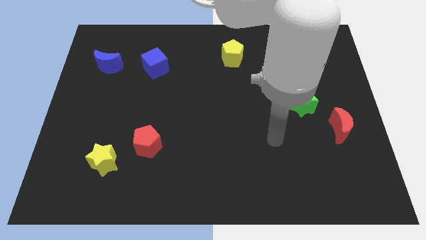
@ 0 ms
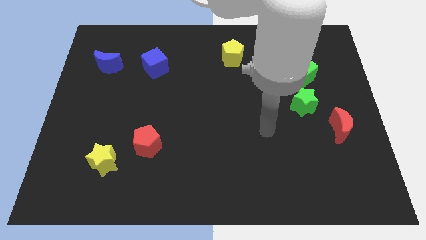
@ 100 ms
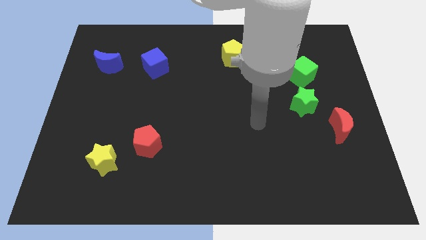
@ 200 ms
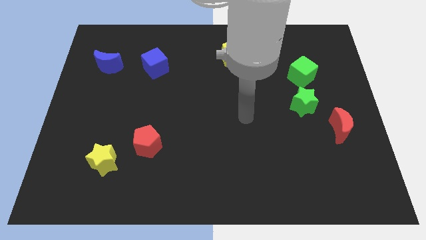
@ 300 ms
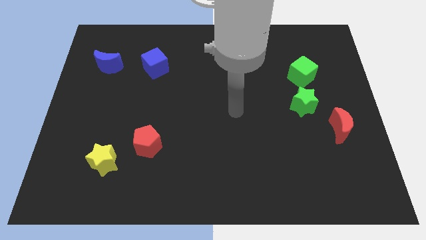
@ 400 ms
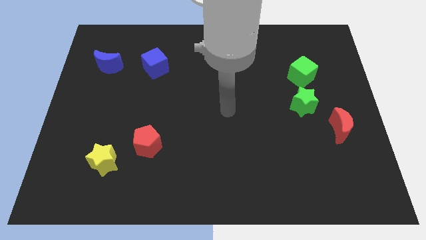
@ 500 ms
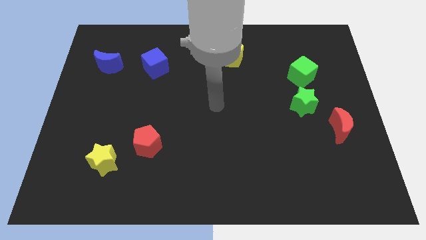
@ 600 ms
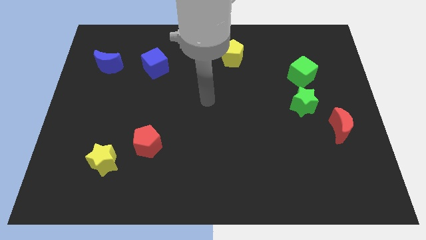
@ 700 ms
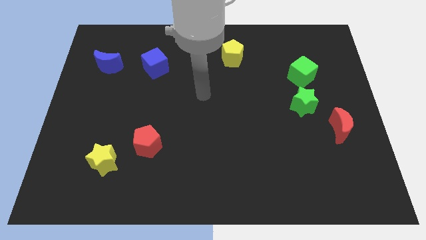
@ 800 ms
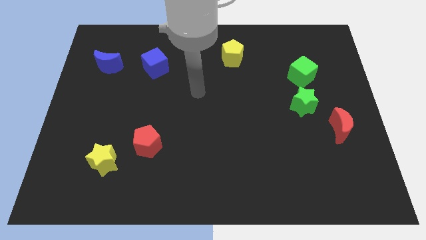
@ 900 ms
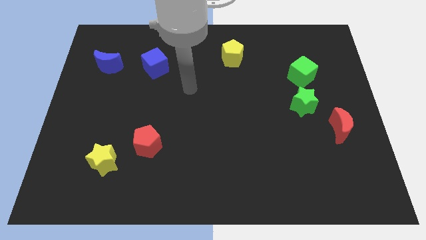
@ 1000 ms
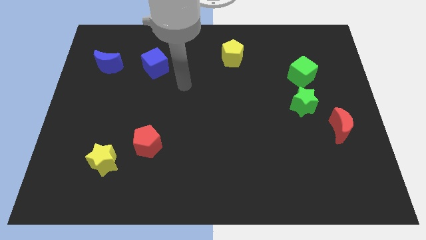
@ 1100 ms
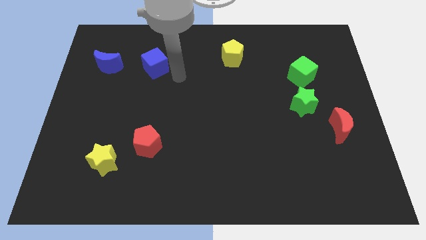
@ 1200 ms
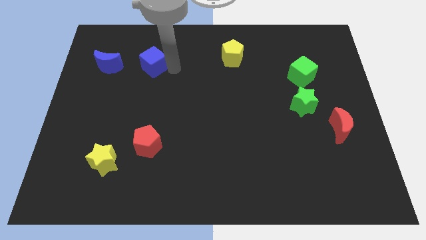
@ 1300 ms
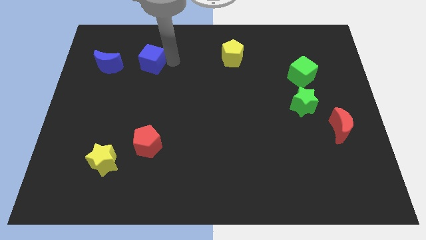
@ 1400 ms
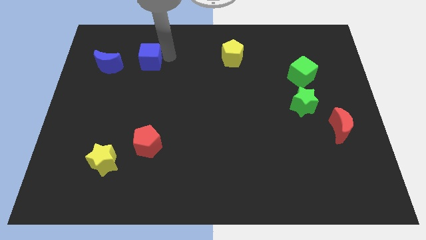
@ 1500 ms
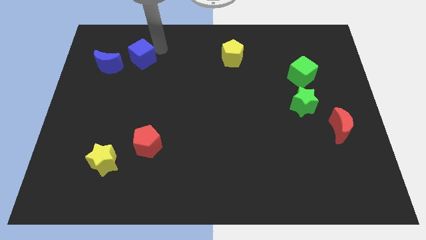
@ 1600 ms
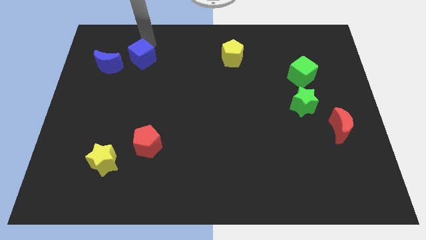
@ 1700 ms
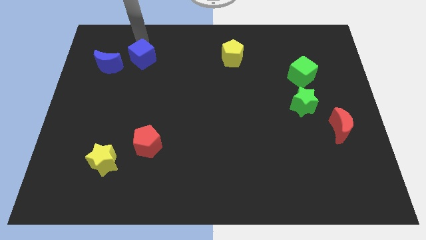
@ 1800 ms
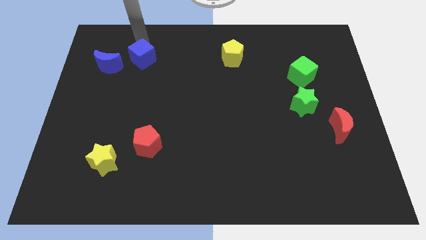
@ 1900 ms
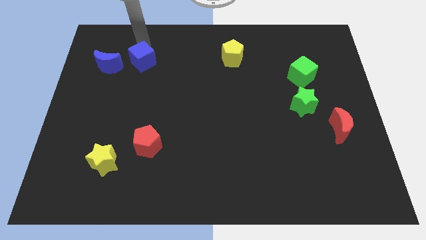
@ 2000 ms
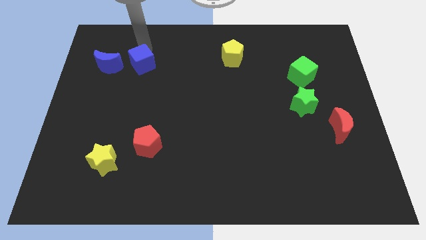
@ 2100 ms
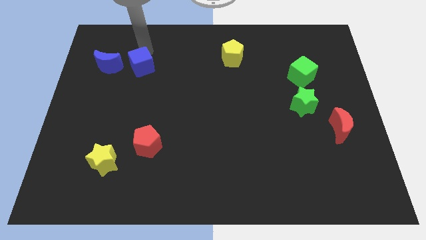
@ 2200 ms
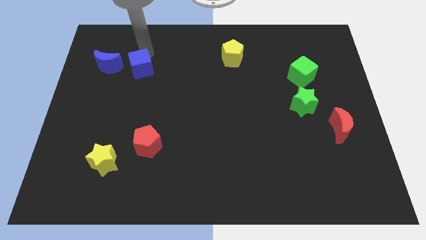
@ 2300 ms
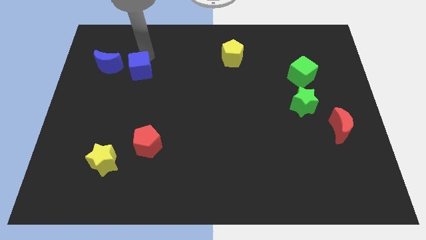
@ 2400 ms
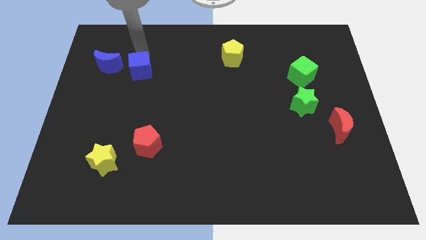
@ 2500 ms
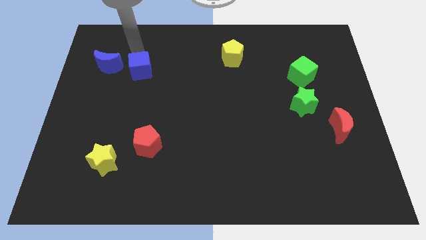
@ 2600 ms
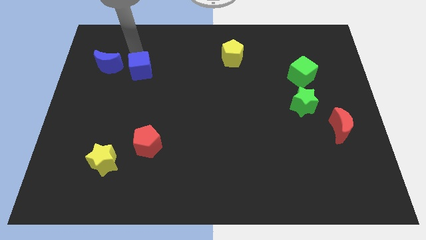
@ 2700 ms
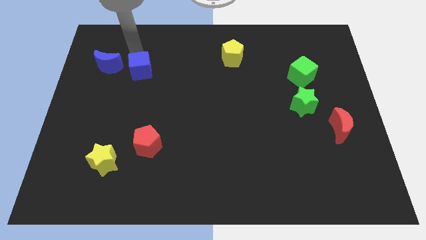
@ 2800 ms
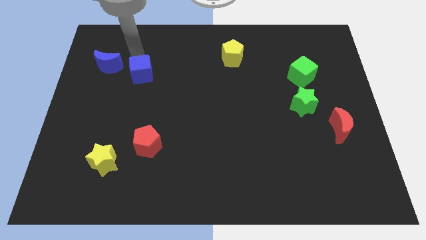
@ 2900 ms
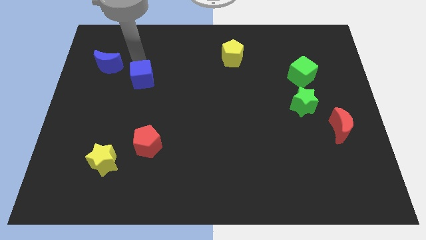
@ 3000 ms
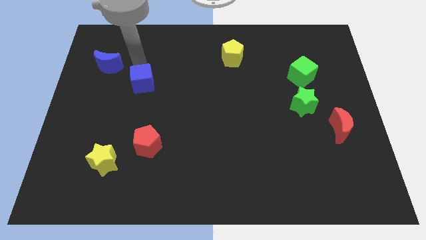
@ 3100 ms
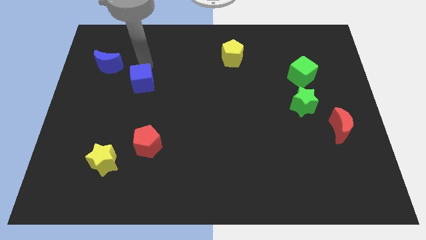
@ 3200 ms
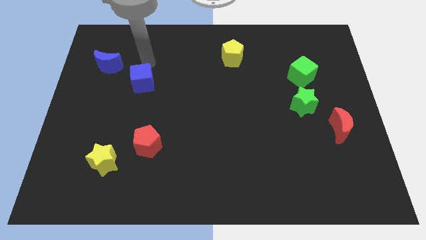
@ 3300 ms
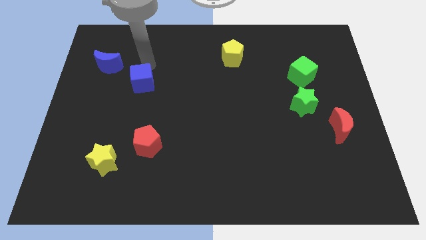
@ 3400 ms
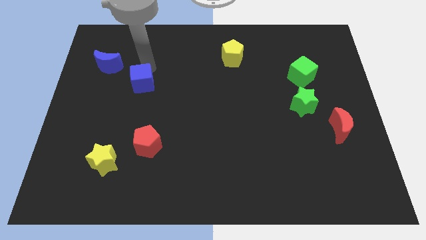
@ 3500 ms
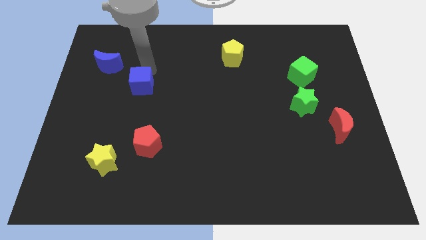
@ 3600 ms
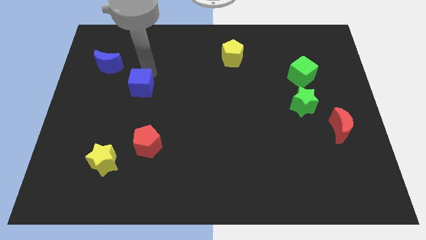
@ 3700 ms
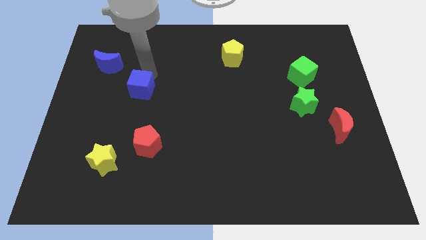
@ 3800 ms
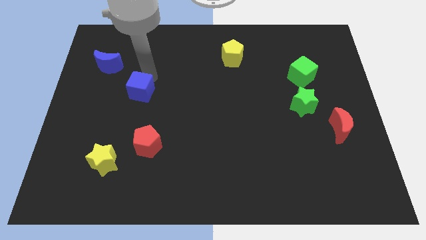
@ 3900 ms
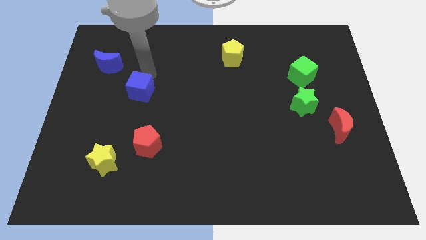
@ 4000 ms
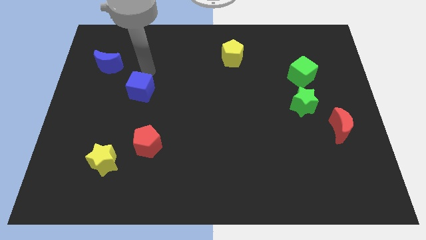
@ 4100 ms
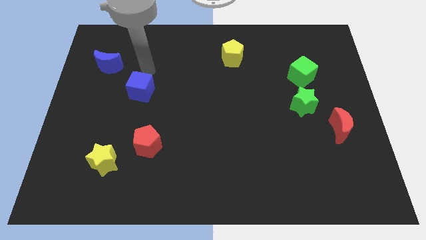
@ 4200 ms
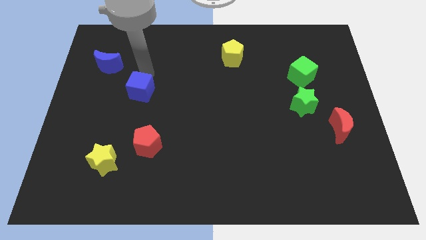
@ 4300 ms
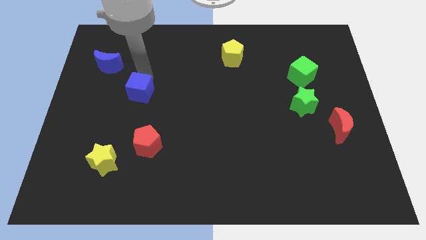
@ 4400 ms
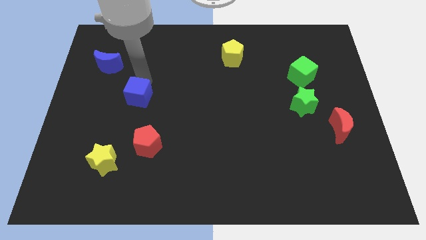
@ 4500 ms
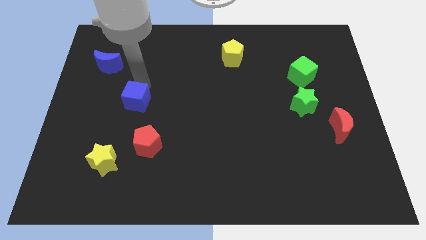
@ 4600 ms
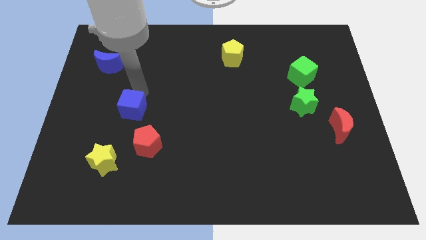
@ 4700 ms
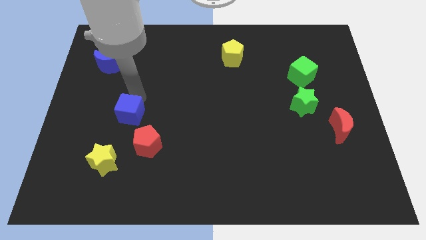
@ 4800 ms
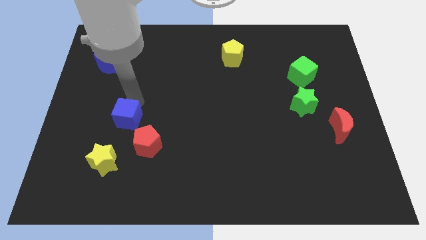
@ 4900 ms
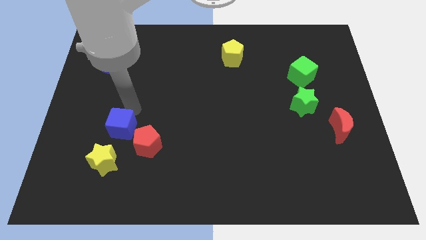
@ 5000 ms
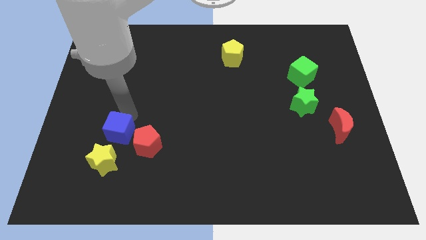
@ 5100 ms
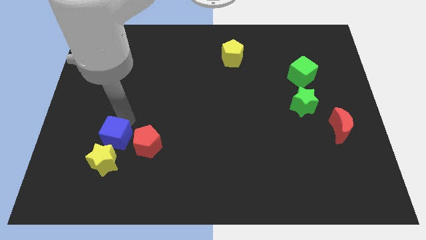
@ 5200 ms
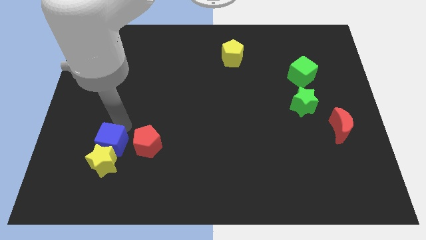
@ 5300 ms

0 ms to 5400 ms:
put the blue cube close to the yellow star

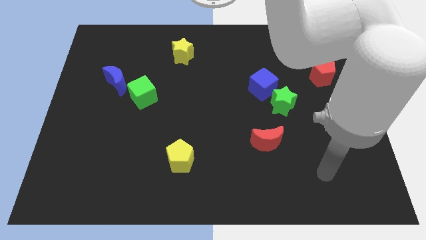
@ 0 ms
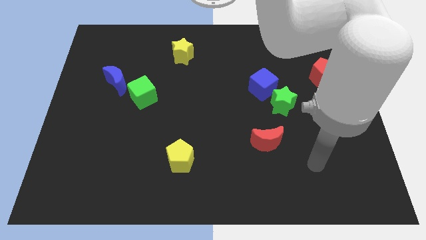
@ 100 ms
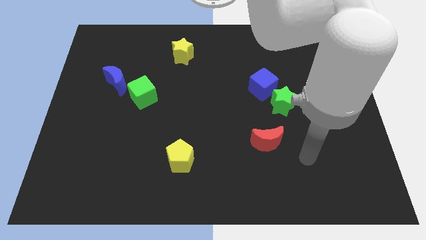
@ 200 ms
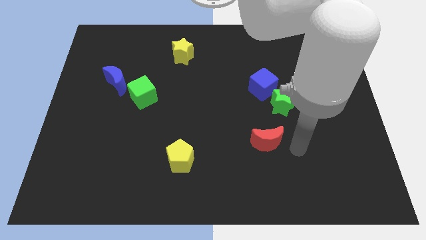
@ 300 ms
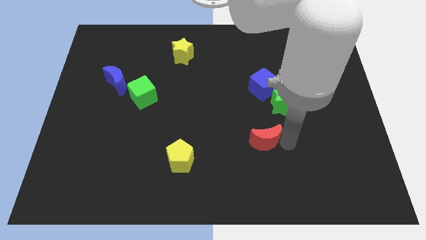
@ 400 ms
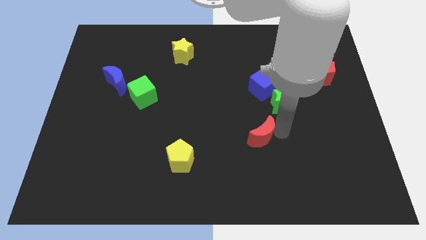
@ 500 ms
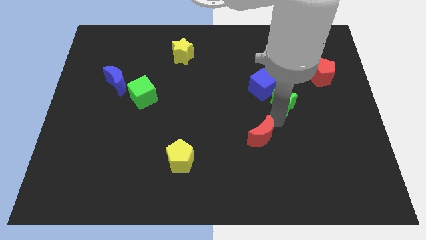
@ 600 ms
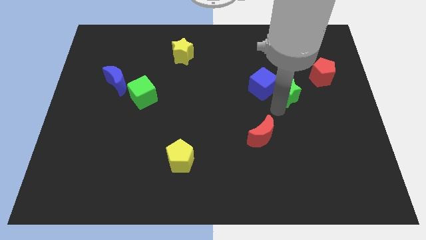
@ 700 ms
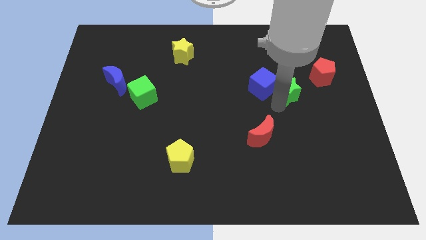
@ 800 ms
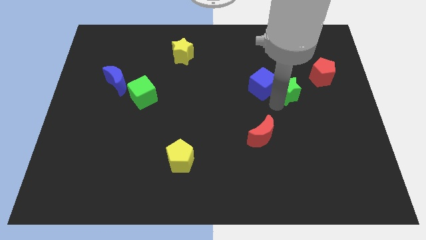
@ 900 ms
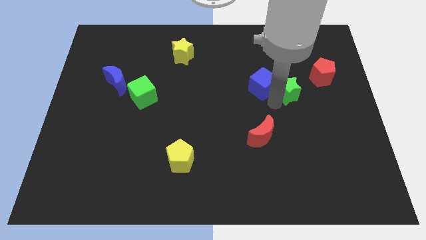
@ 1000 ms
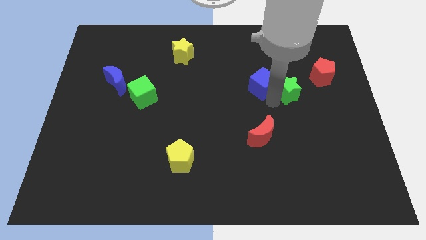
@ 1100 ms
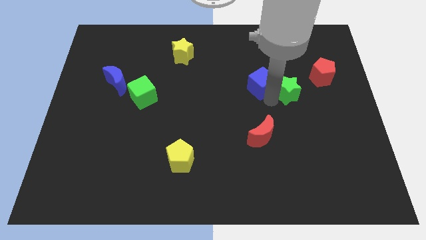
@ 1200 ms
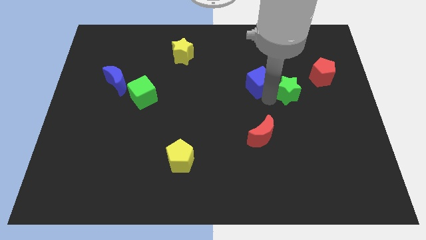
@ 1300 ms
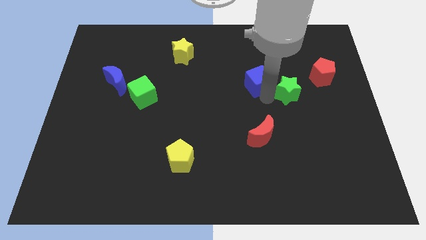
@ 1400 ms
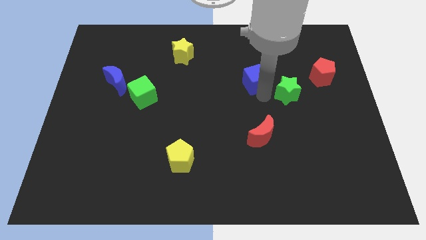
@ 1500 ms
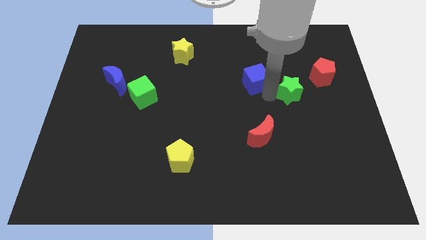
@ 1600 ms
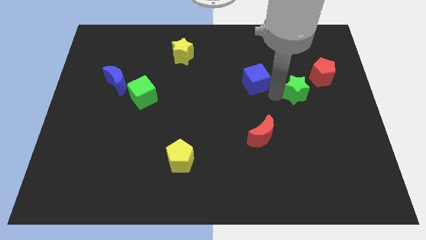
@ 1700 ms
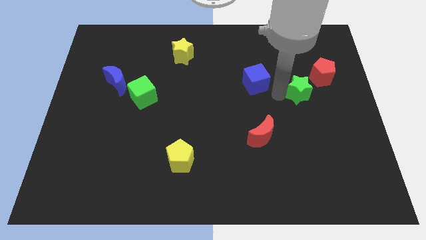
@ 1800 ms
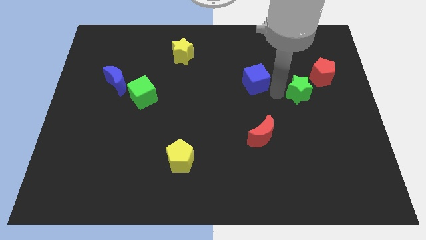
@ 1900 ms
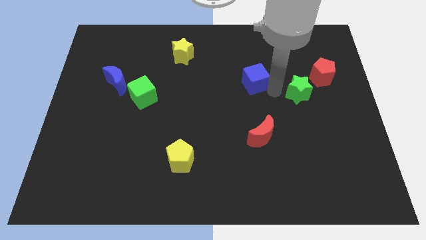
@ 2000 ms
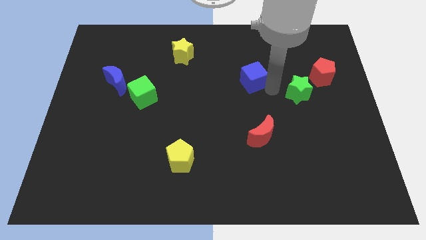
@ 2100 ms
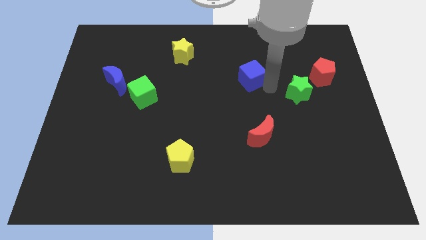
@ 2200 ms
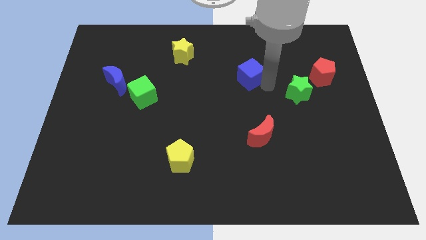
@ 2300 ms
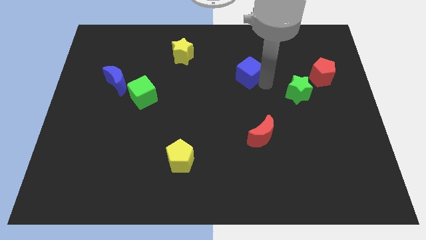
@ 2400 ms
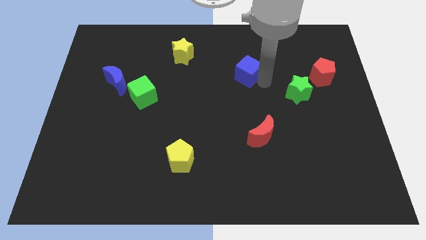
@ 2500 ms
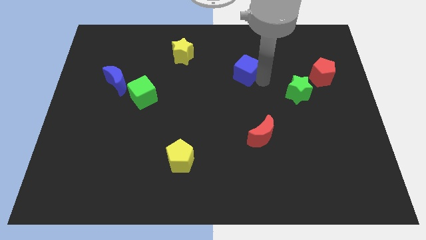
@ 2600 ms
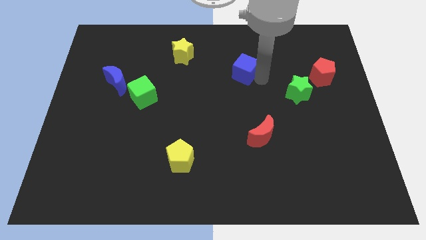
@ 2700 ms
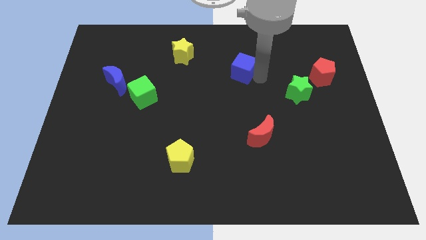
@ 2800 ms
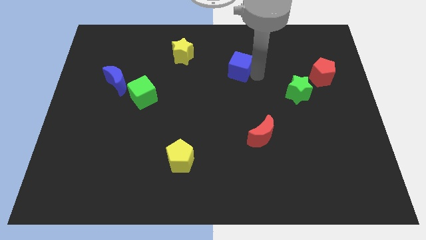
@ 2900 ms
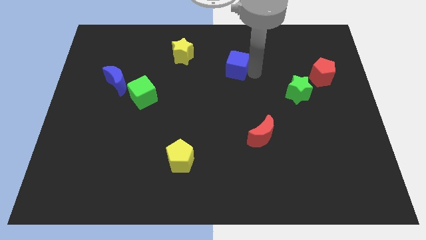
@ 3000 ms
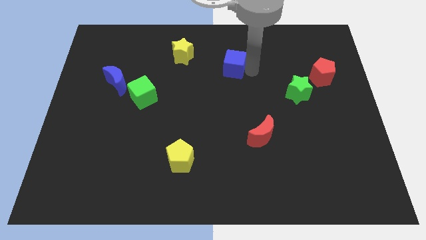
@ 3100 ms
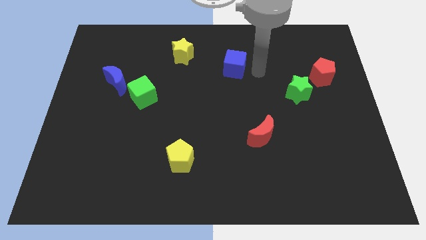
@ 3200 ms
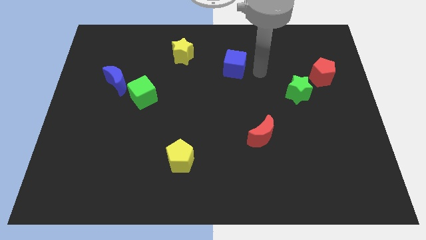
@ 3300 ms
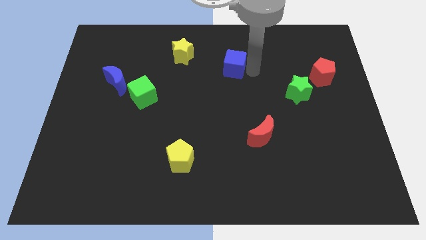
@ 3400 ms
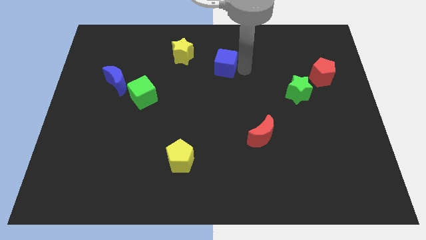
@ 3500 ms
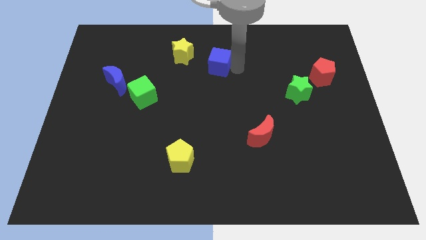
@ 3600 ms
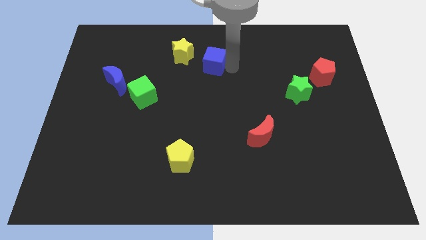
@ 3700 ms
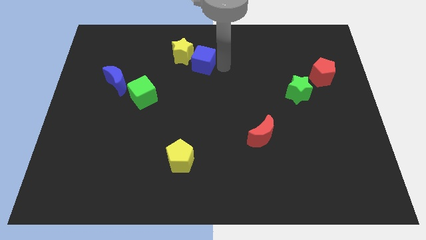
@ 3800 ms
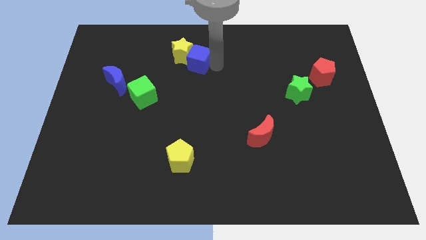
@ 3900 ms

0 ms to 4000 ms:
put the blue cube towards the yellow star
